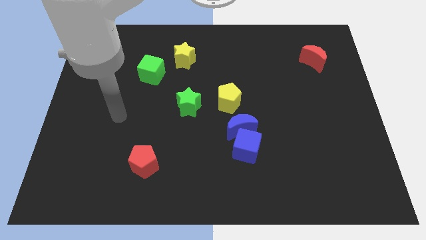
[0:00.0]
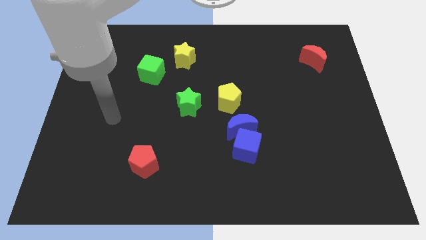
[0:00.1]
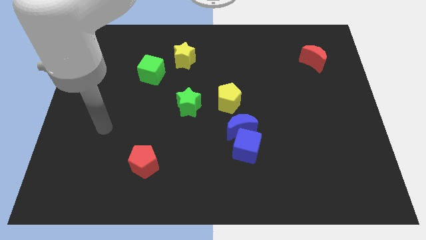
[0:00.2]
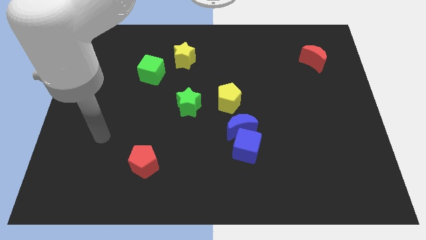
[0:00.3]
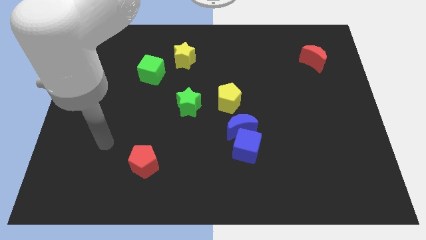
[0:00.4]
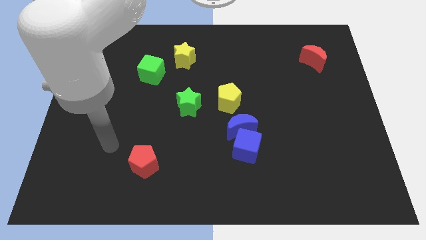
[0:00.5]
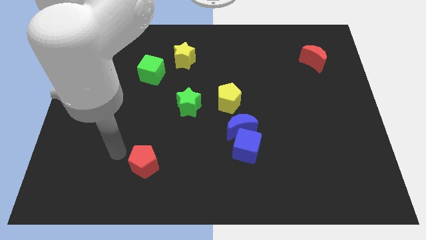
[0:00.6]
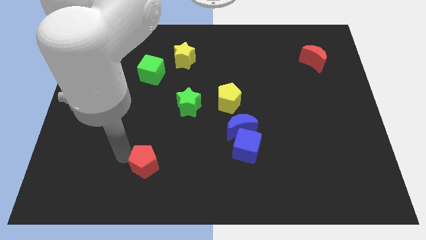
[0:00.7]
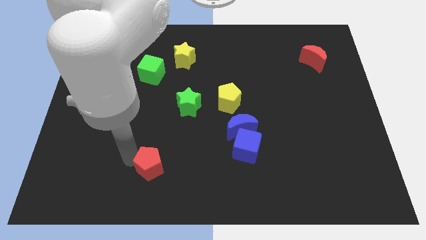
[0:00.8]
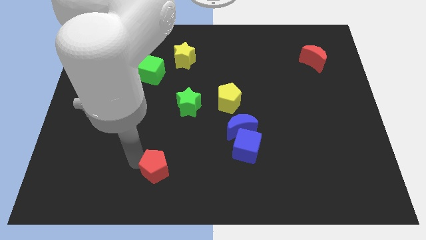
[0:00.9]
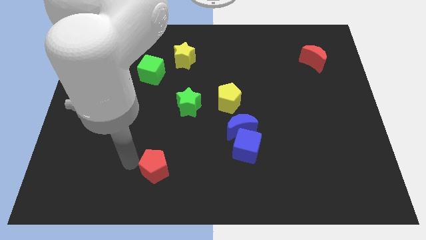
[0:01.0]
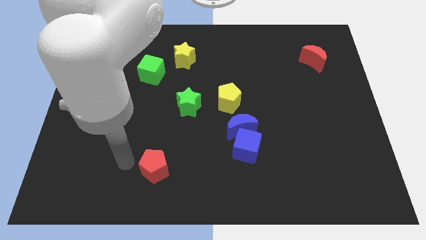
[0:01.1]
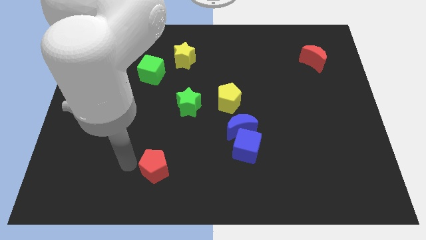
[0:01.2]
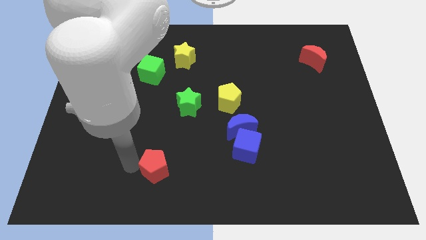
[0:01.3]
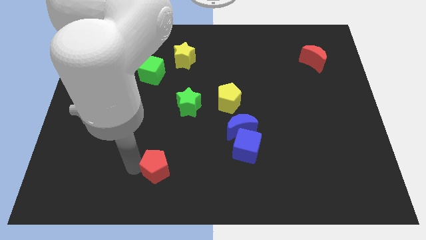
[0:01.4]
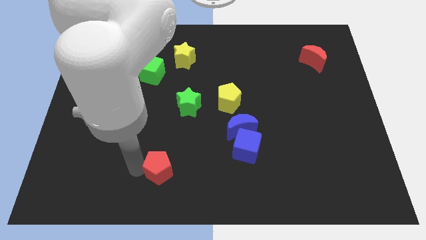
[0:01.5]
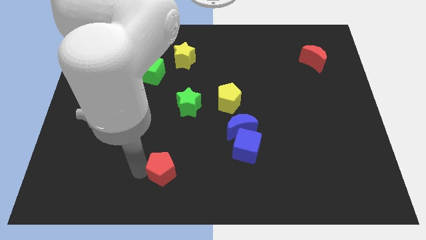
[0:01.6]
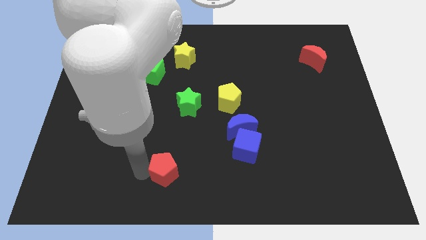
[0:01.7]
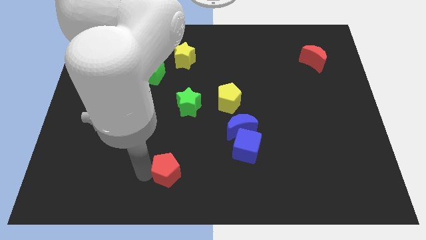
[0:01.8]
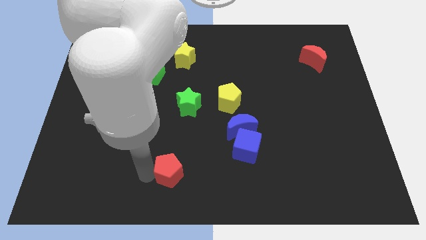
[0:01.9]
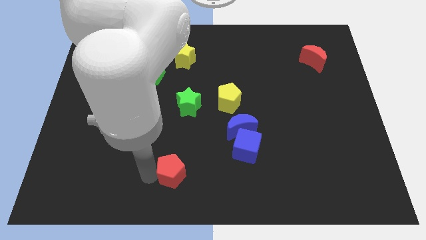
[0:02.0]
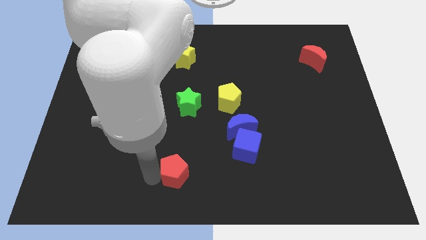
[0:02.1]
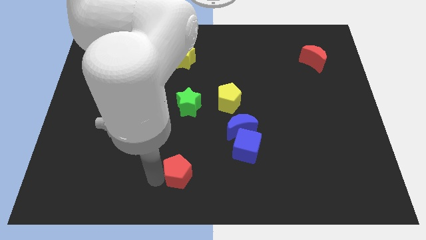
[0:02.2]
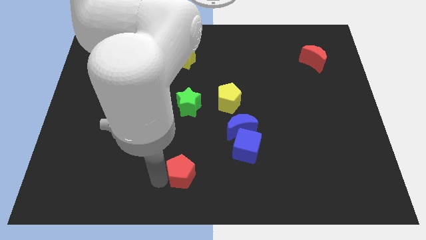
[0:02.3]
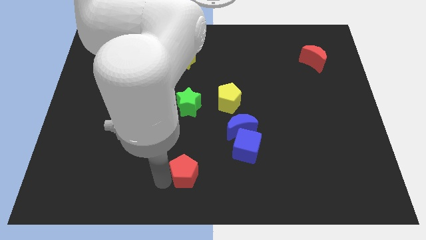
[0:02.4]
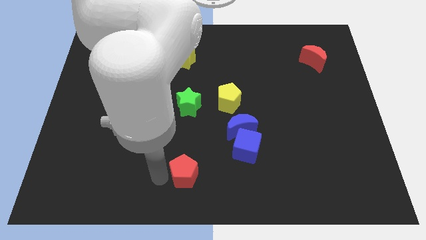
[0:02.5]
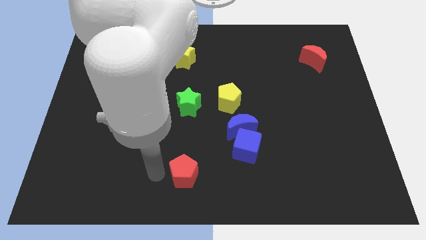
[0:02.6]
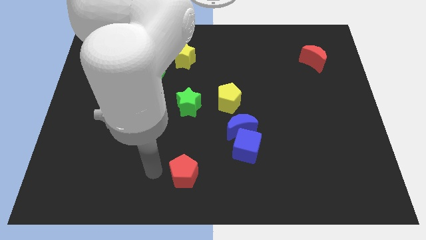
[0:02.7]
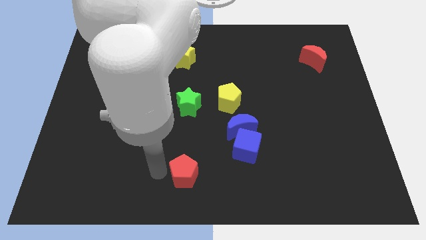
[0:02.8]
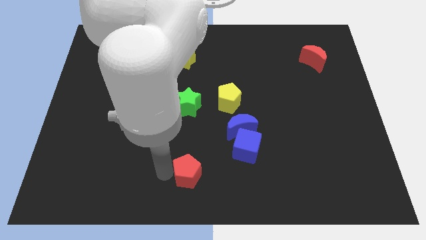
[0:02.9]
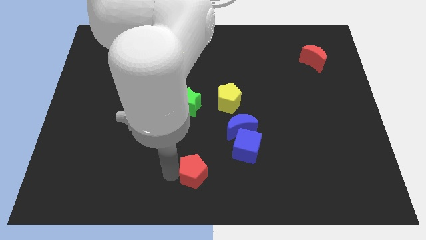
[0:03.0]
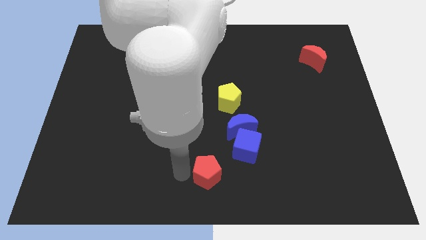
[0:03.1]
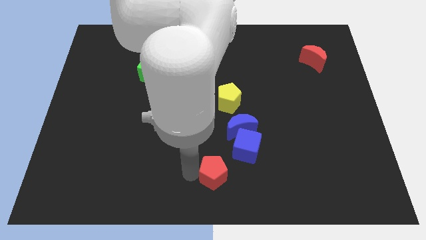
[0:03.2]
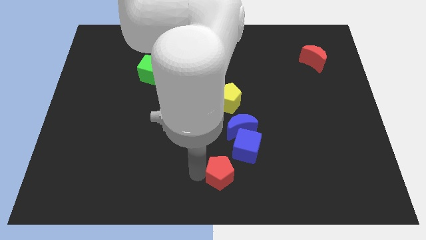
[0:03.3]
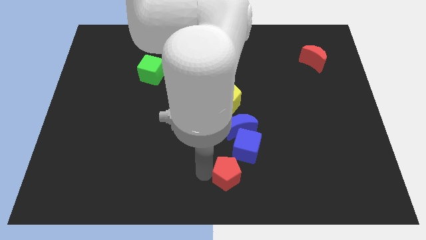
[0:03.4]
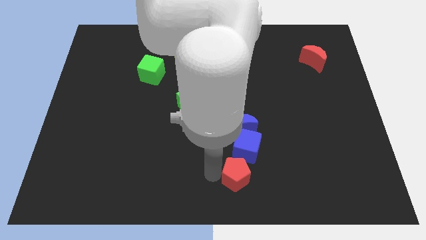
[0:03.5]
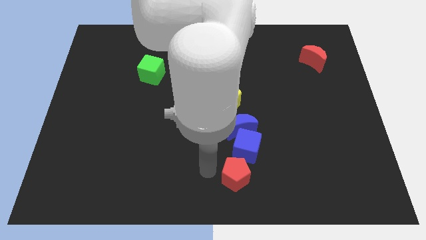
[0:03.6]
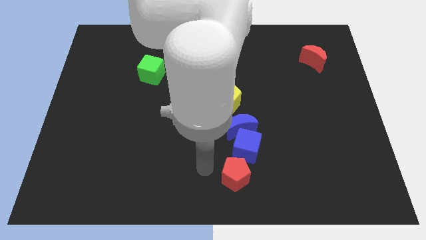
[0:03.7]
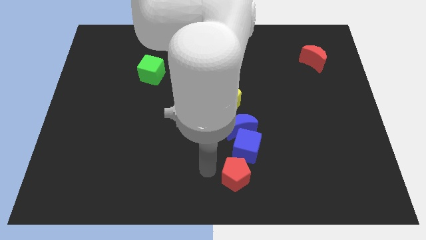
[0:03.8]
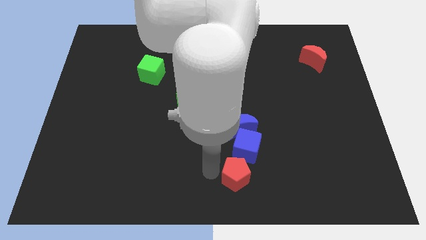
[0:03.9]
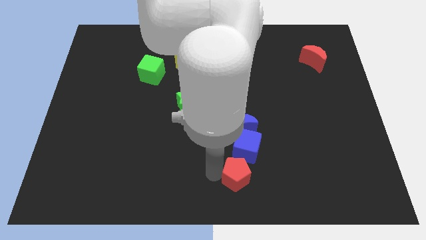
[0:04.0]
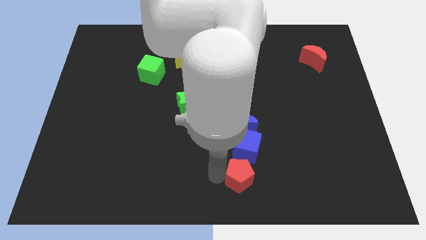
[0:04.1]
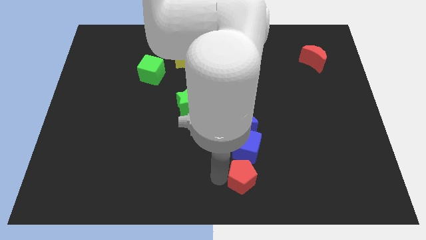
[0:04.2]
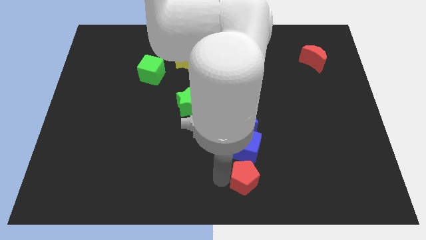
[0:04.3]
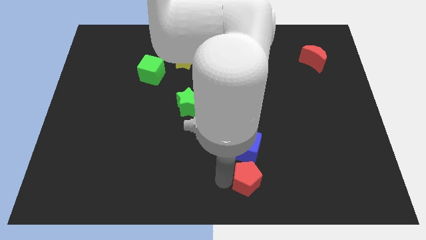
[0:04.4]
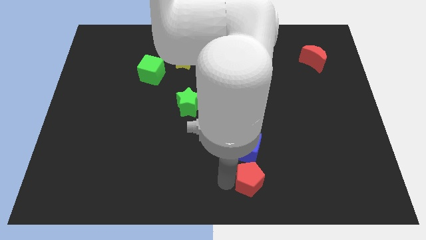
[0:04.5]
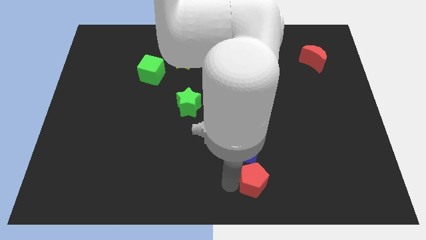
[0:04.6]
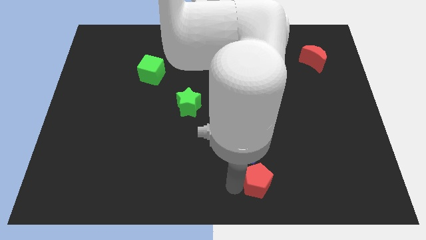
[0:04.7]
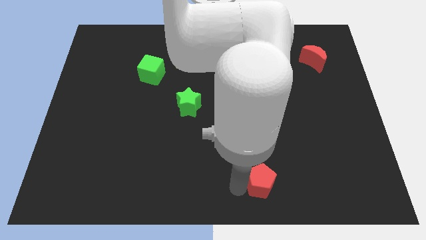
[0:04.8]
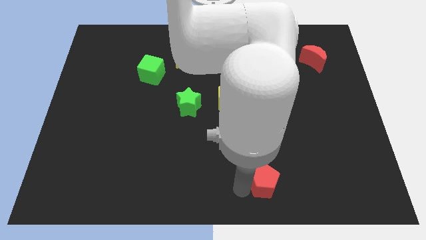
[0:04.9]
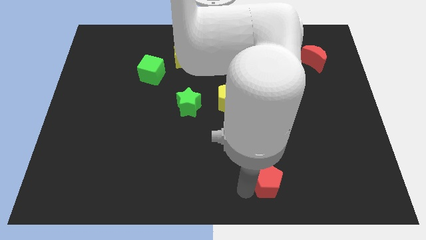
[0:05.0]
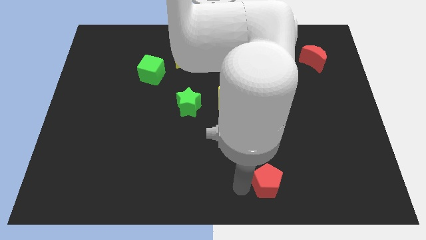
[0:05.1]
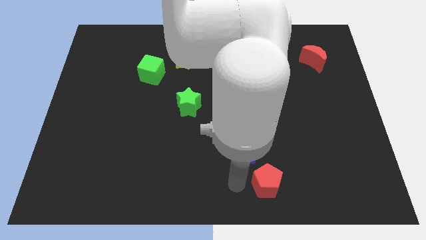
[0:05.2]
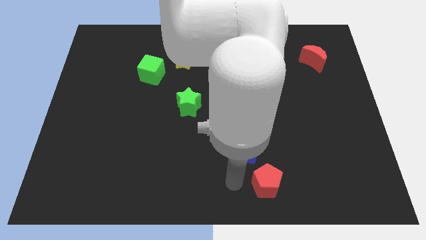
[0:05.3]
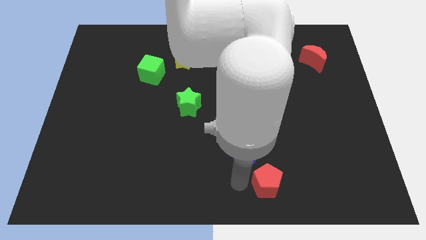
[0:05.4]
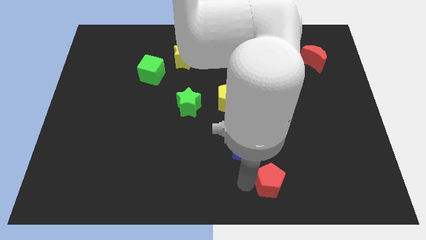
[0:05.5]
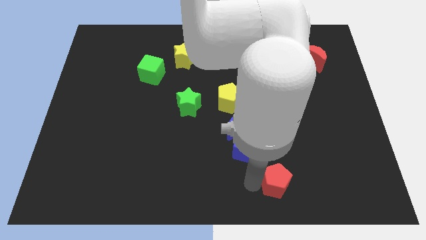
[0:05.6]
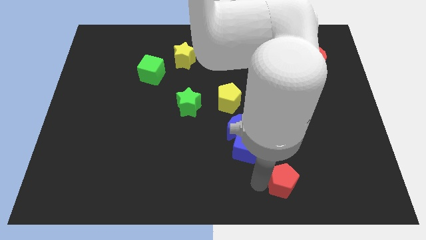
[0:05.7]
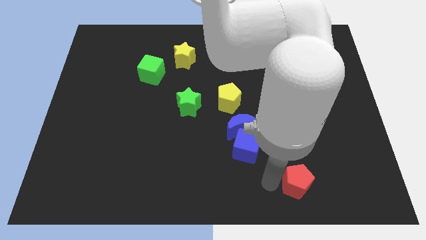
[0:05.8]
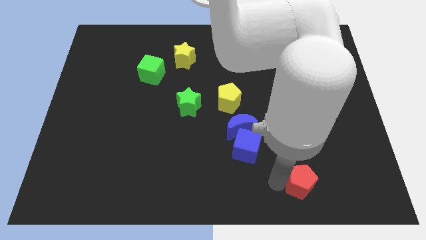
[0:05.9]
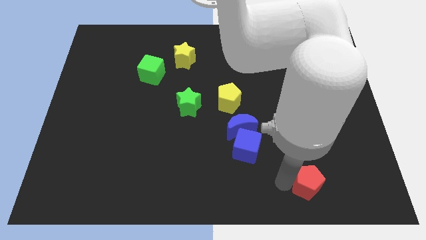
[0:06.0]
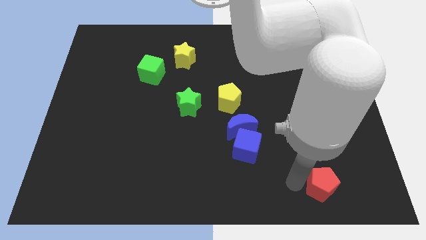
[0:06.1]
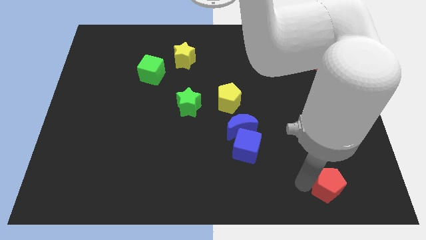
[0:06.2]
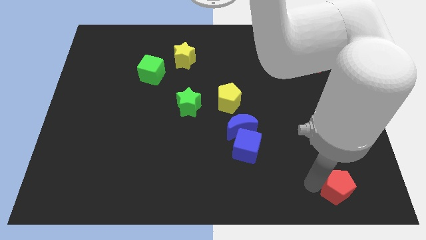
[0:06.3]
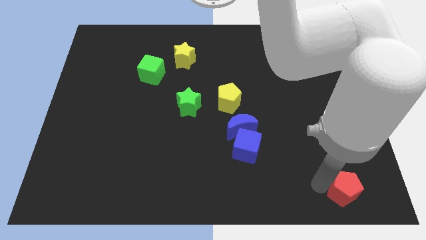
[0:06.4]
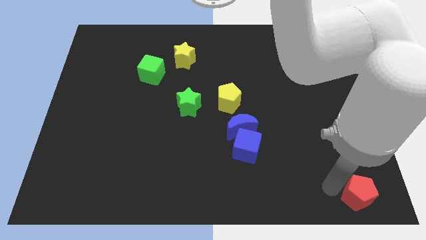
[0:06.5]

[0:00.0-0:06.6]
push the red pentagon to the bottom right corner
